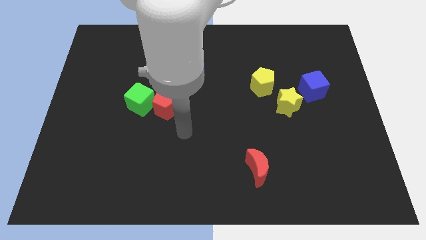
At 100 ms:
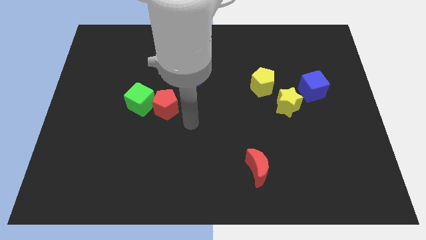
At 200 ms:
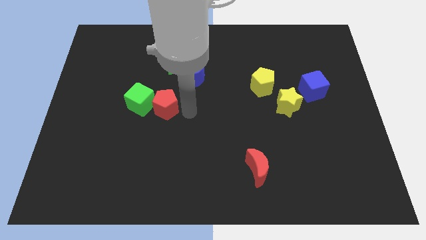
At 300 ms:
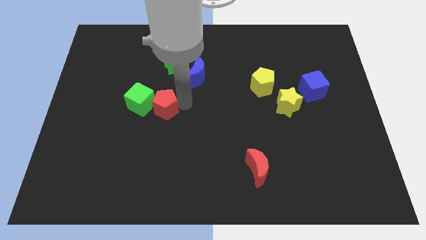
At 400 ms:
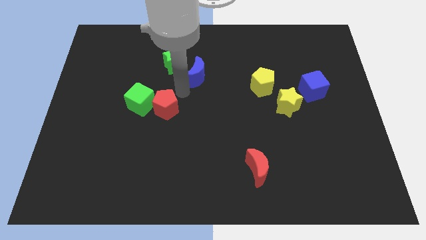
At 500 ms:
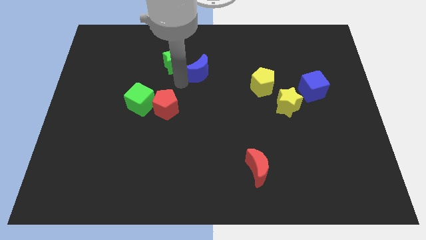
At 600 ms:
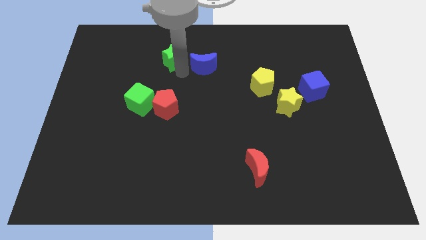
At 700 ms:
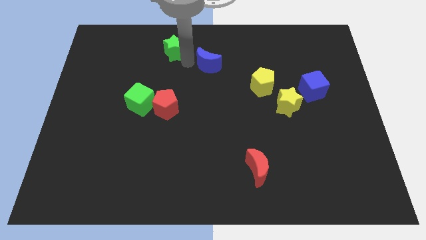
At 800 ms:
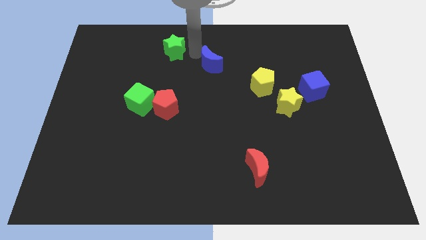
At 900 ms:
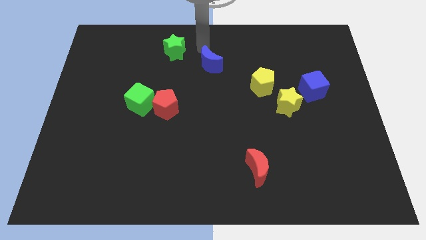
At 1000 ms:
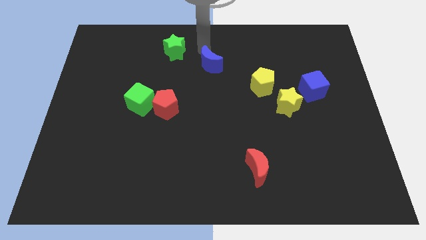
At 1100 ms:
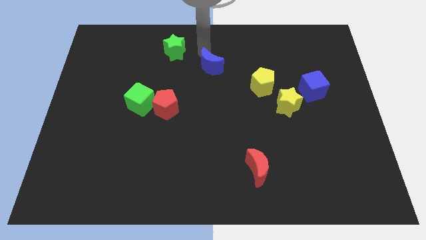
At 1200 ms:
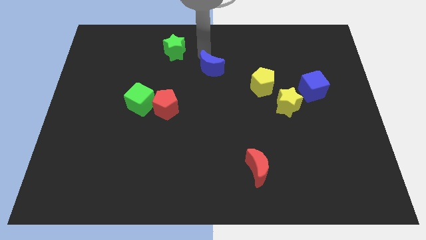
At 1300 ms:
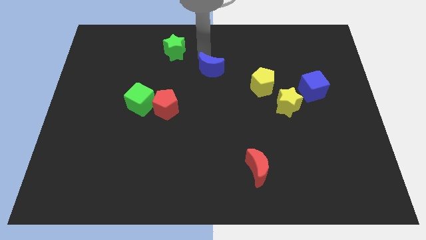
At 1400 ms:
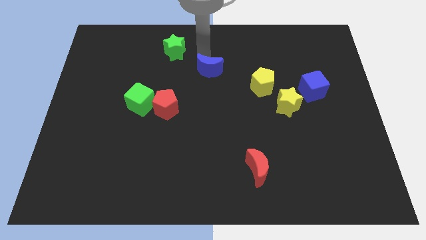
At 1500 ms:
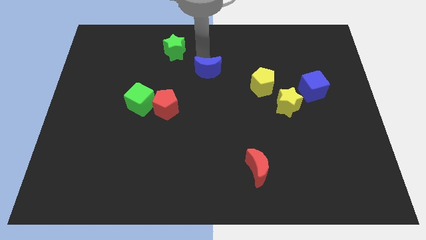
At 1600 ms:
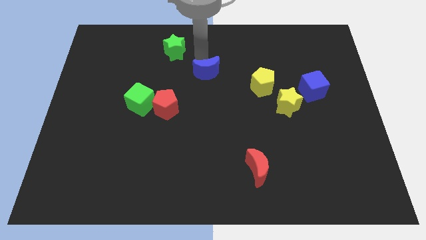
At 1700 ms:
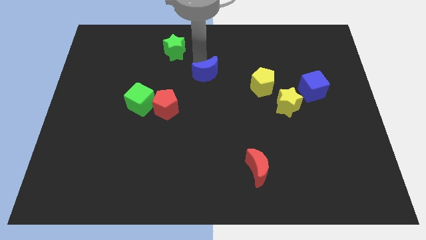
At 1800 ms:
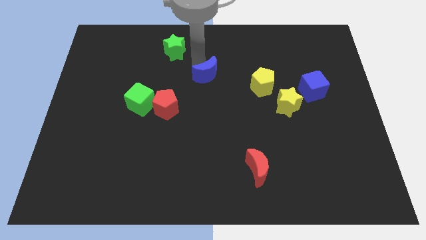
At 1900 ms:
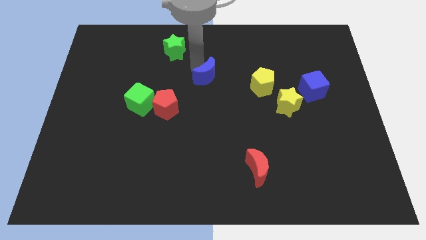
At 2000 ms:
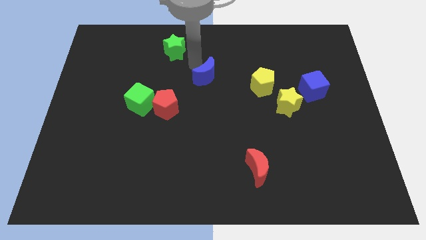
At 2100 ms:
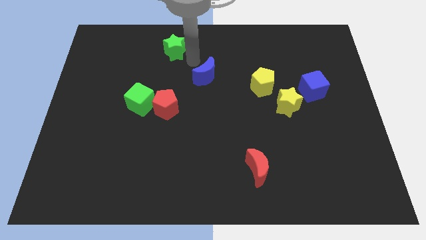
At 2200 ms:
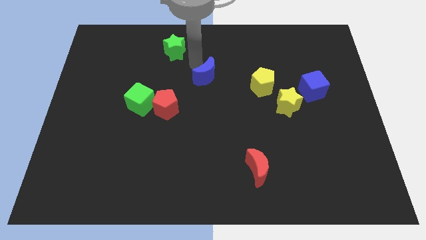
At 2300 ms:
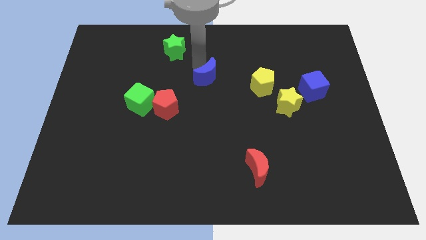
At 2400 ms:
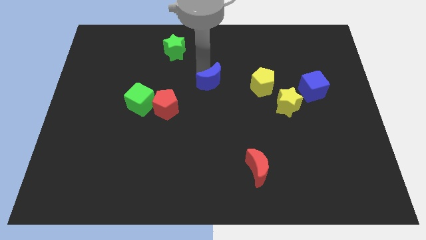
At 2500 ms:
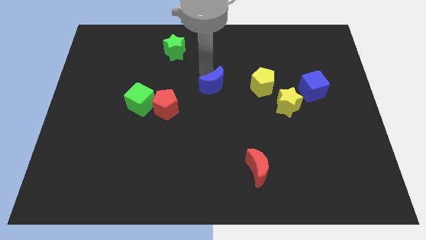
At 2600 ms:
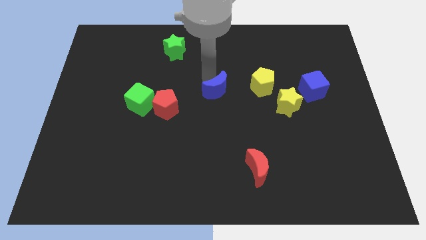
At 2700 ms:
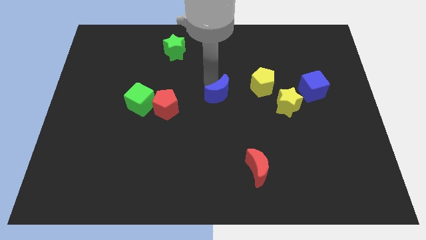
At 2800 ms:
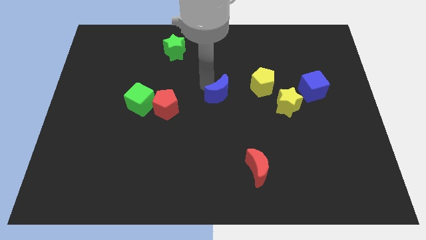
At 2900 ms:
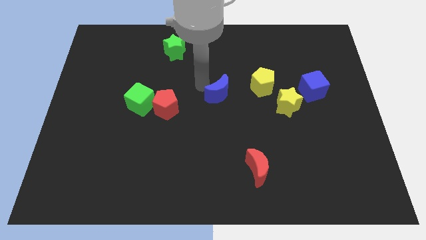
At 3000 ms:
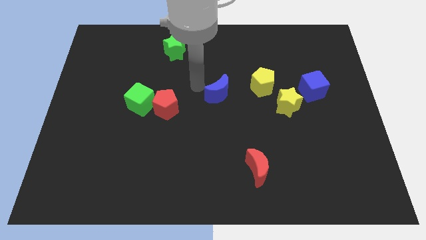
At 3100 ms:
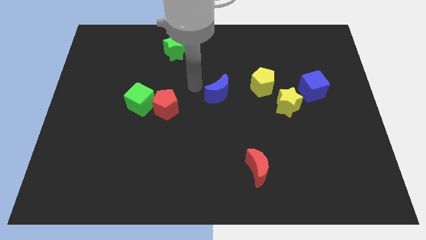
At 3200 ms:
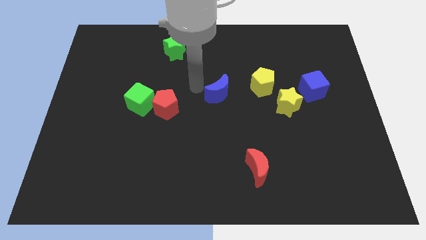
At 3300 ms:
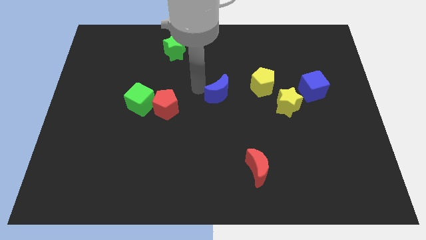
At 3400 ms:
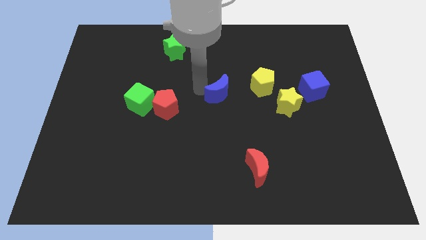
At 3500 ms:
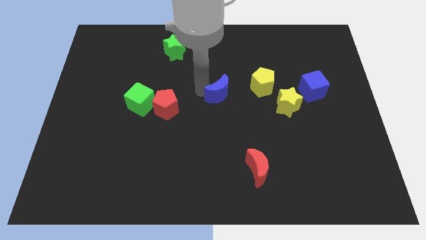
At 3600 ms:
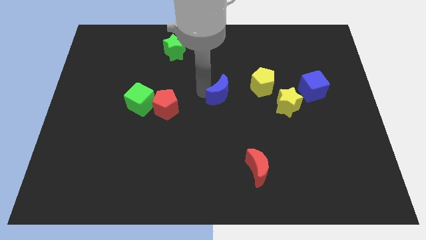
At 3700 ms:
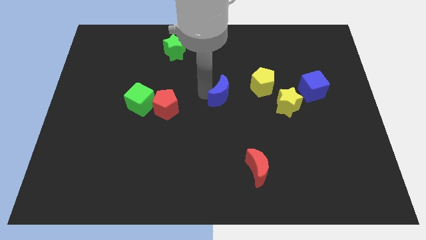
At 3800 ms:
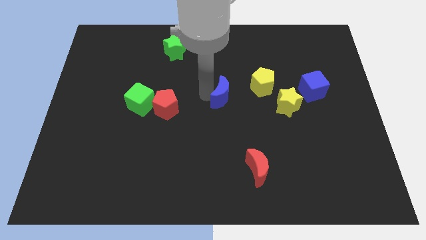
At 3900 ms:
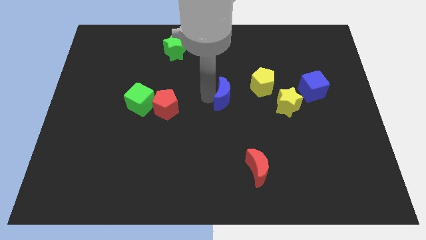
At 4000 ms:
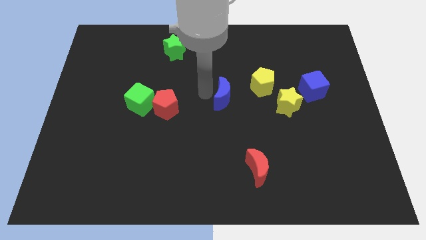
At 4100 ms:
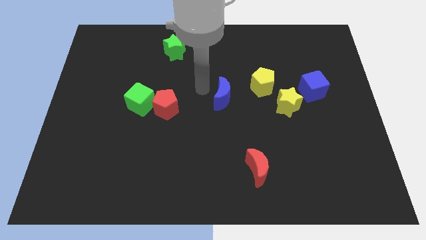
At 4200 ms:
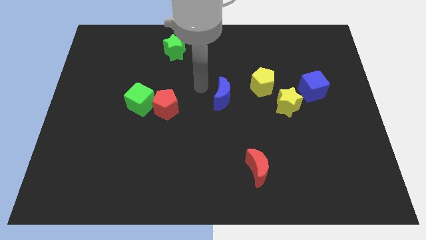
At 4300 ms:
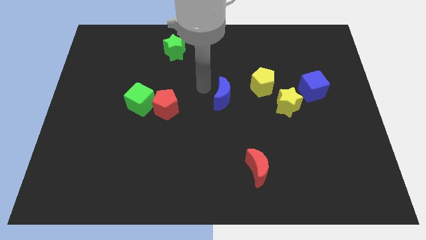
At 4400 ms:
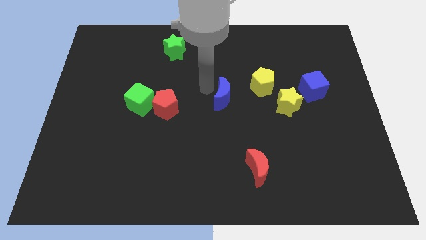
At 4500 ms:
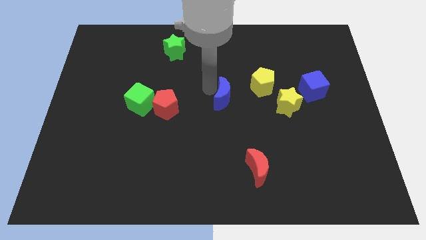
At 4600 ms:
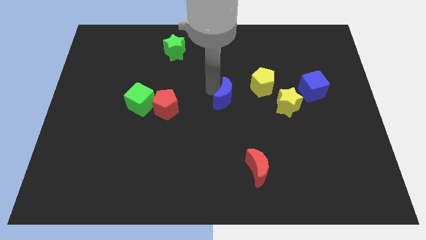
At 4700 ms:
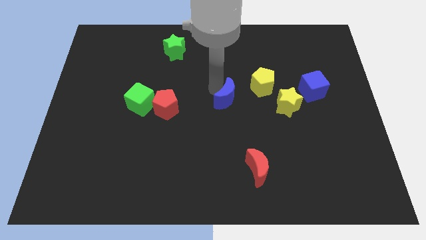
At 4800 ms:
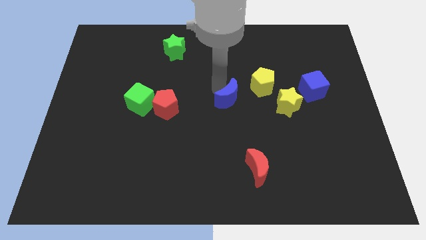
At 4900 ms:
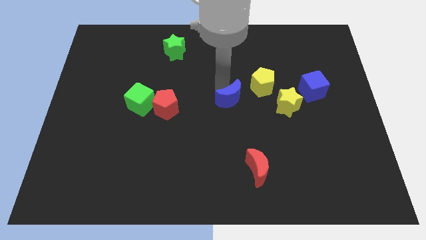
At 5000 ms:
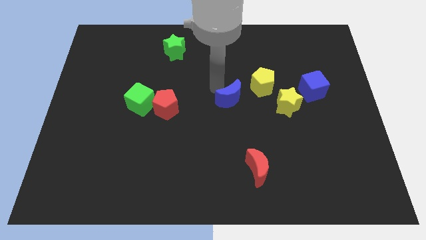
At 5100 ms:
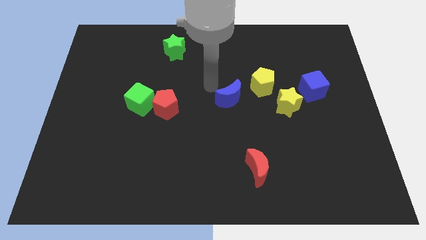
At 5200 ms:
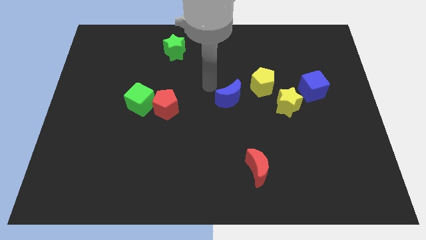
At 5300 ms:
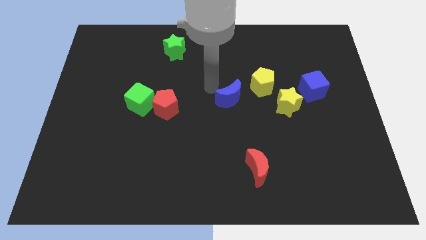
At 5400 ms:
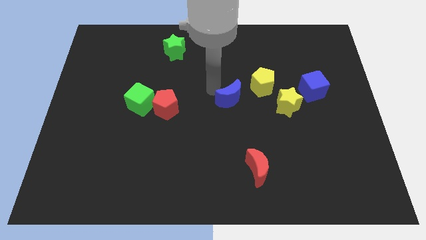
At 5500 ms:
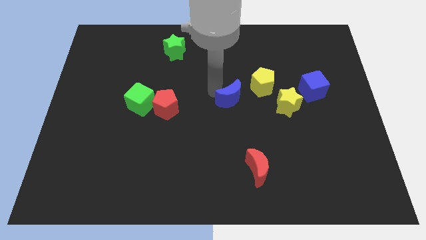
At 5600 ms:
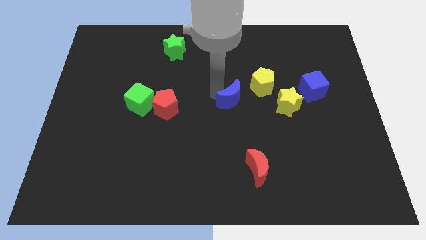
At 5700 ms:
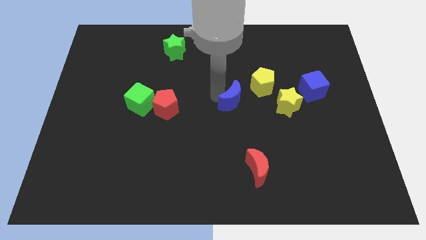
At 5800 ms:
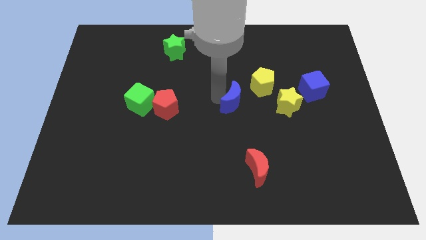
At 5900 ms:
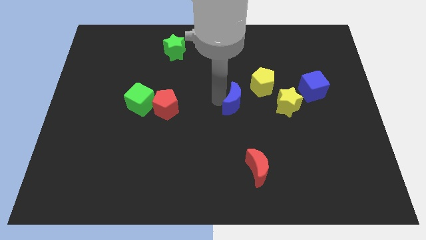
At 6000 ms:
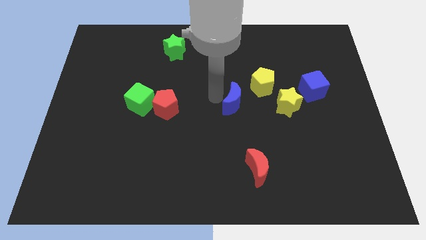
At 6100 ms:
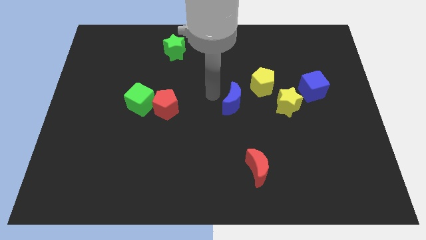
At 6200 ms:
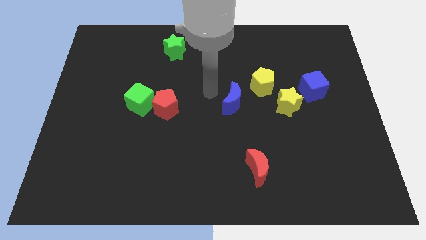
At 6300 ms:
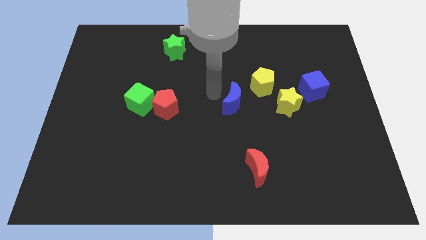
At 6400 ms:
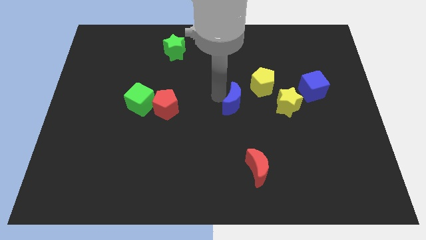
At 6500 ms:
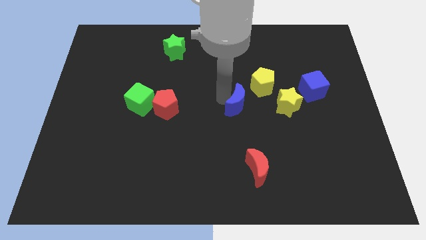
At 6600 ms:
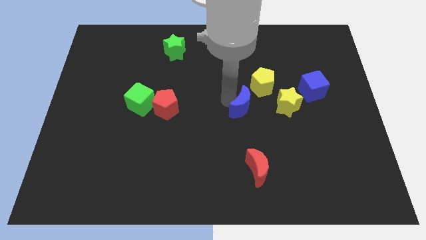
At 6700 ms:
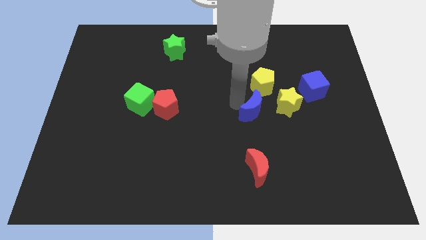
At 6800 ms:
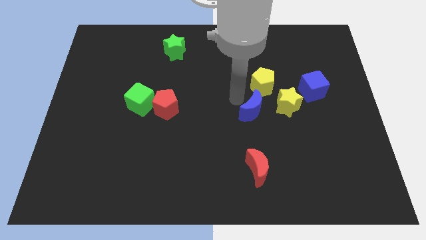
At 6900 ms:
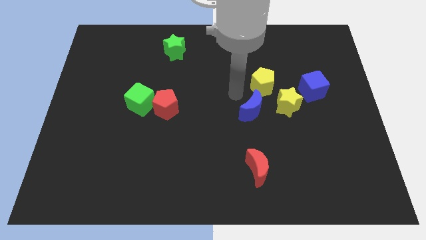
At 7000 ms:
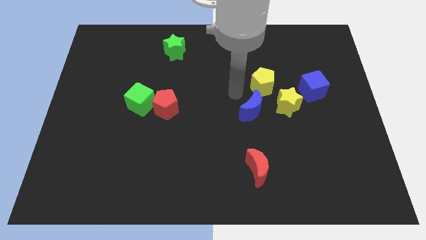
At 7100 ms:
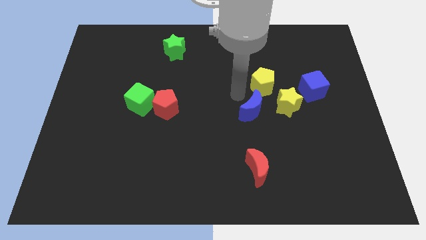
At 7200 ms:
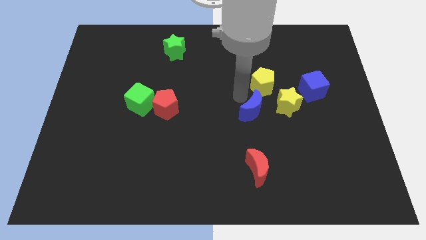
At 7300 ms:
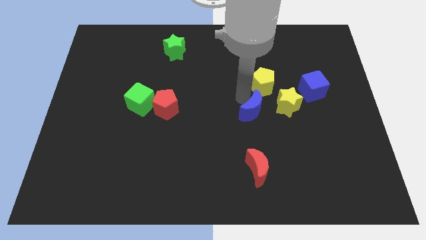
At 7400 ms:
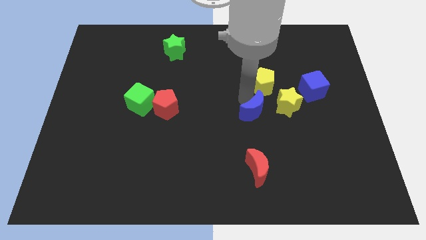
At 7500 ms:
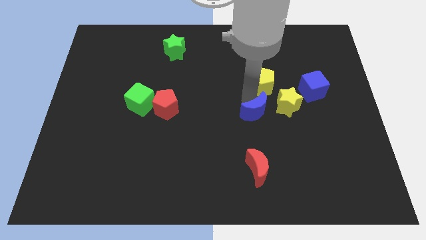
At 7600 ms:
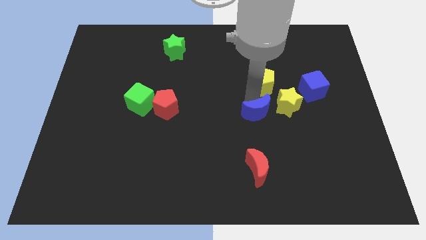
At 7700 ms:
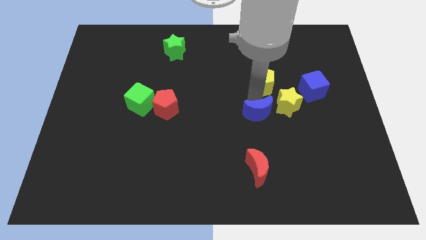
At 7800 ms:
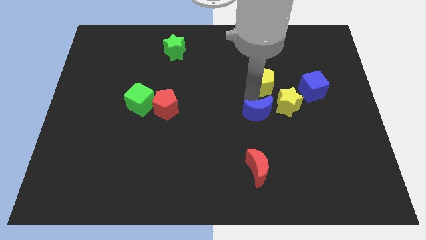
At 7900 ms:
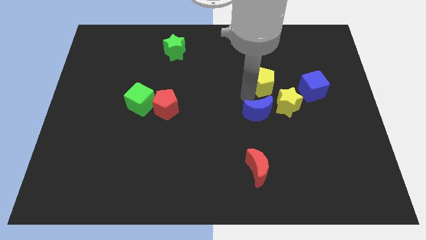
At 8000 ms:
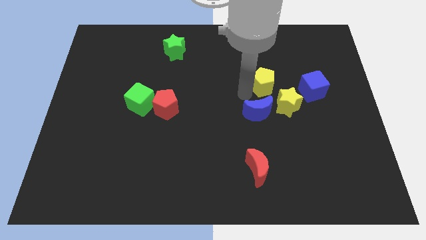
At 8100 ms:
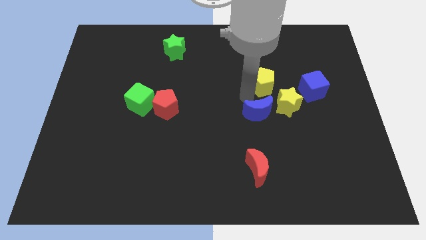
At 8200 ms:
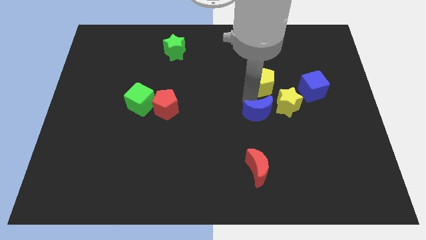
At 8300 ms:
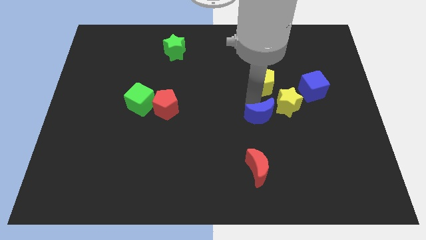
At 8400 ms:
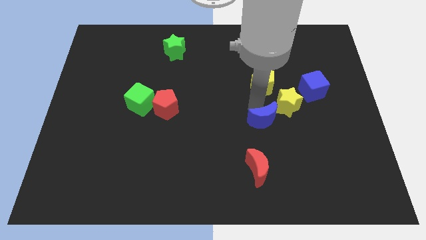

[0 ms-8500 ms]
push the blue moon diagonally down and right
